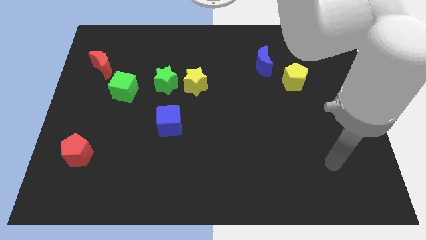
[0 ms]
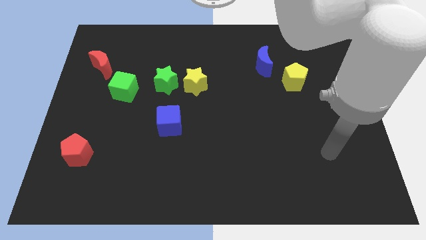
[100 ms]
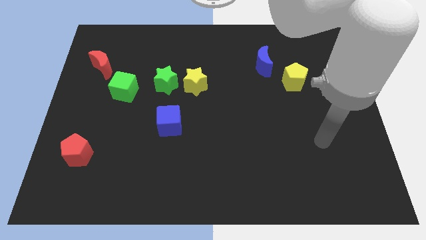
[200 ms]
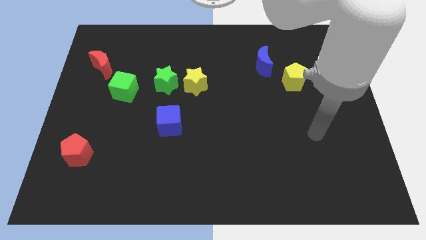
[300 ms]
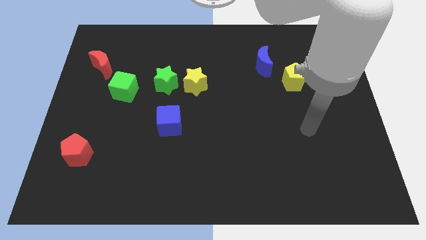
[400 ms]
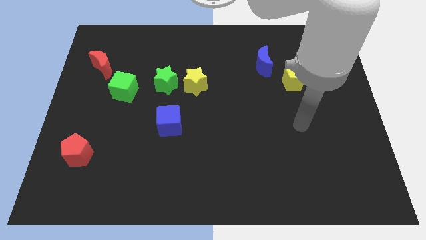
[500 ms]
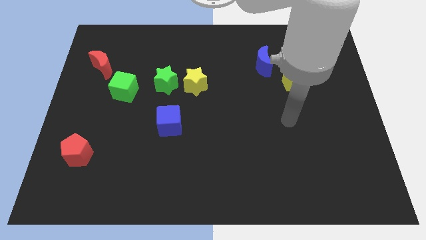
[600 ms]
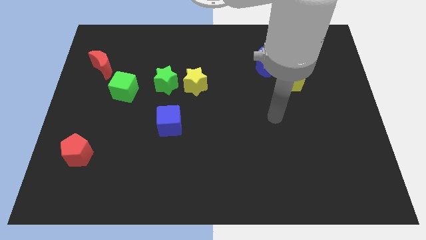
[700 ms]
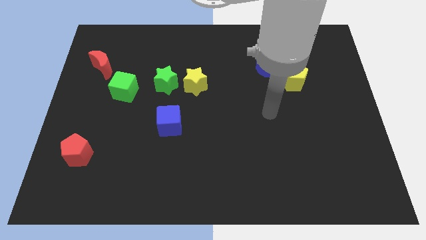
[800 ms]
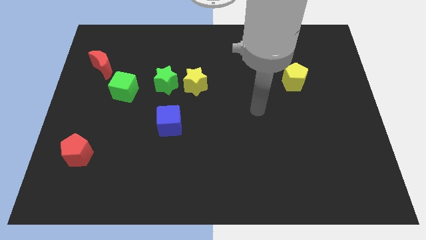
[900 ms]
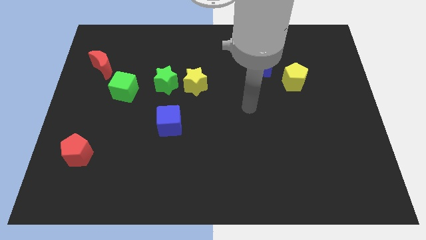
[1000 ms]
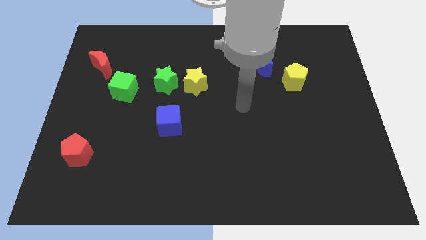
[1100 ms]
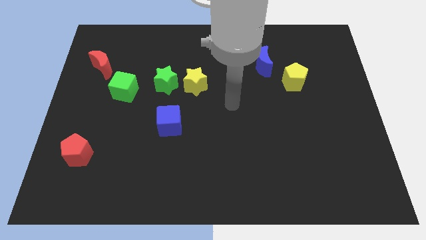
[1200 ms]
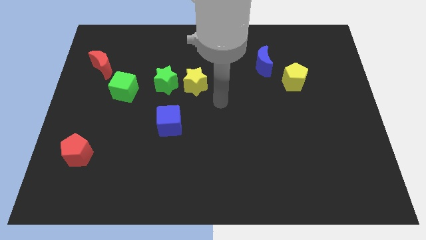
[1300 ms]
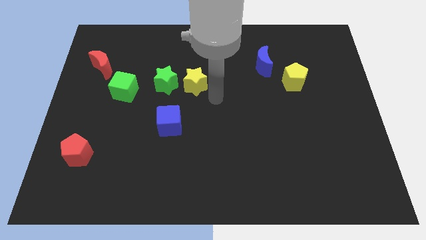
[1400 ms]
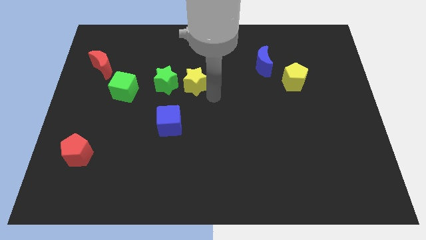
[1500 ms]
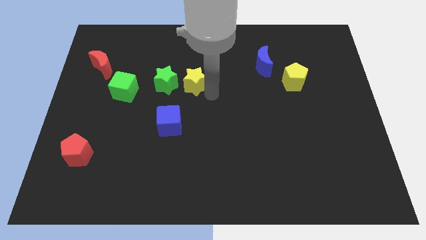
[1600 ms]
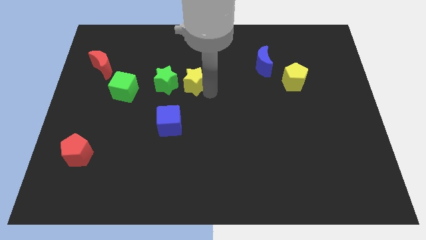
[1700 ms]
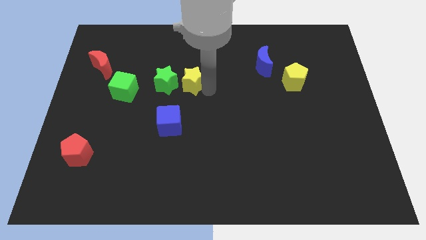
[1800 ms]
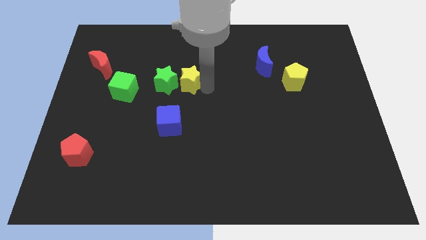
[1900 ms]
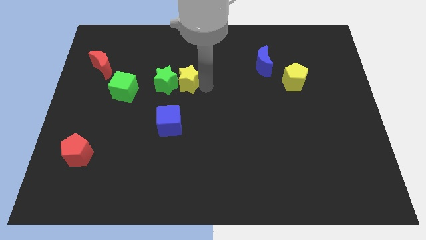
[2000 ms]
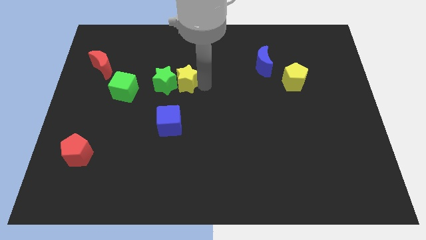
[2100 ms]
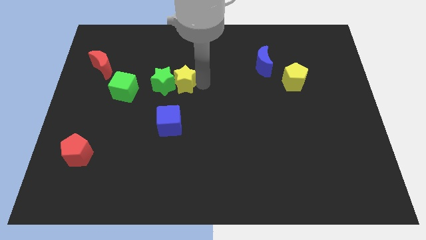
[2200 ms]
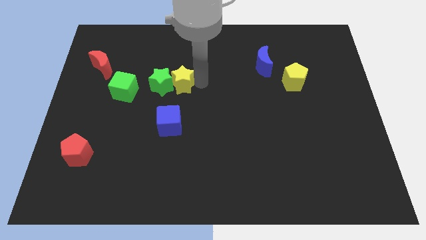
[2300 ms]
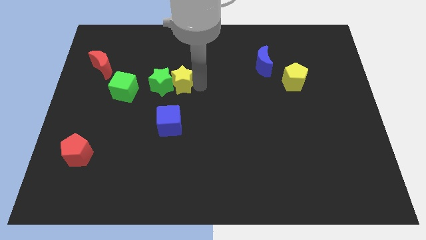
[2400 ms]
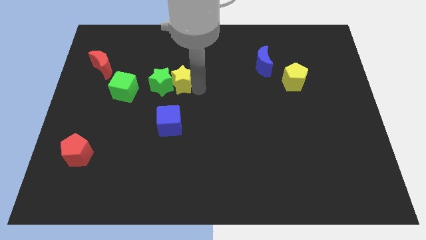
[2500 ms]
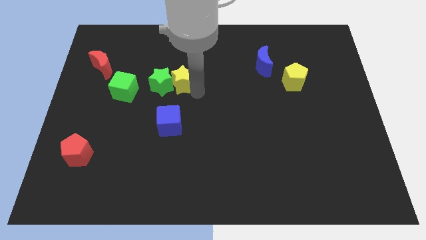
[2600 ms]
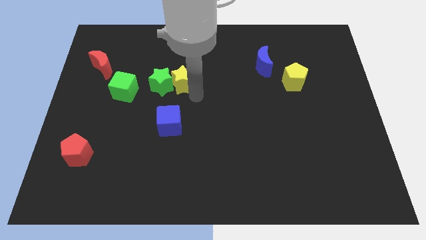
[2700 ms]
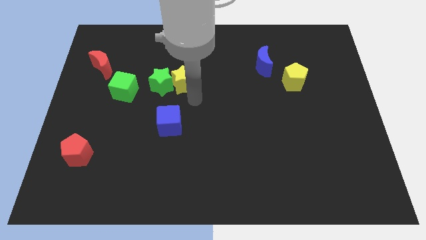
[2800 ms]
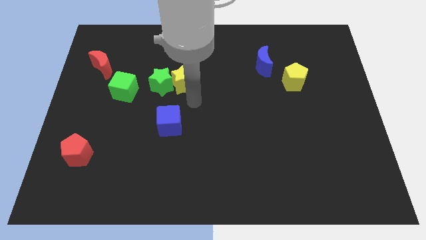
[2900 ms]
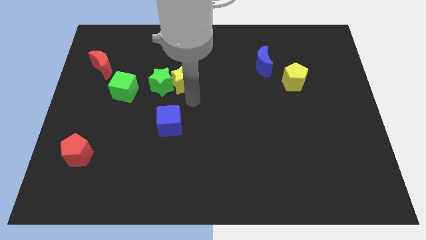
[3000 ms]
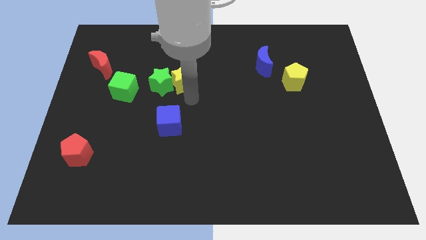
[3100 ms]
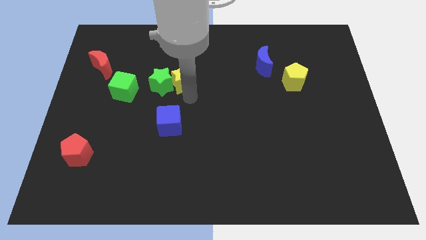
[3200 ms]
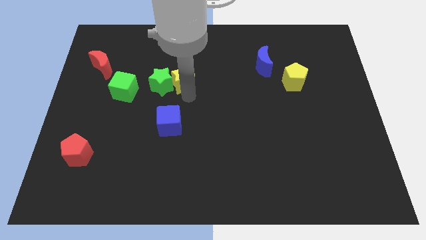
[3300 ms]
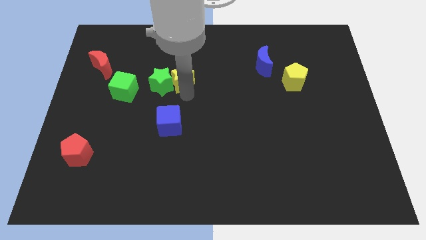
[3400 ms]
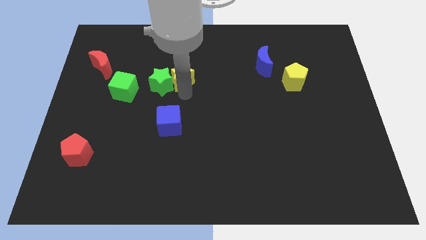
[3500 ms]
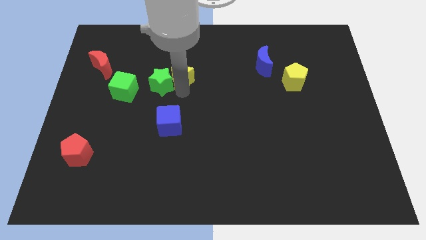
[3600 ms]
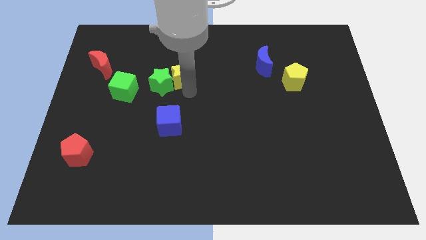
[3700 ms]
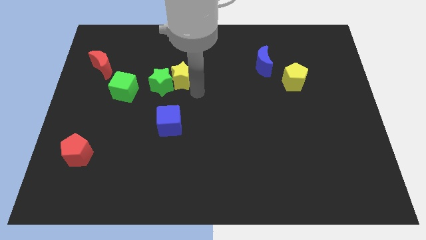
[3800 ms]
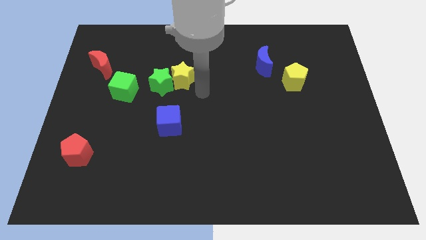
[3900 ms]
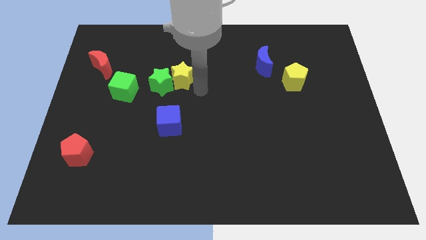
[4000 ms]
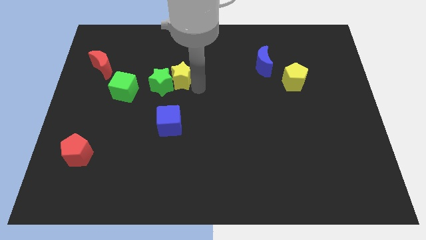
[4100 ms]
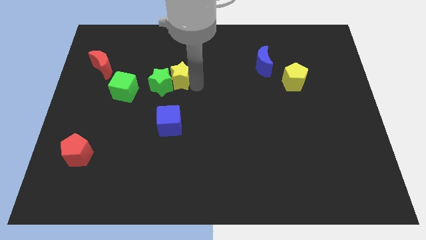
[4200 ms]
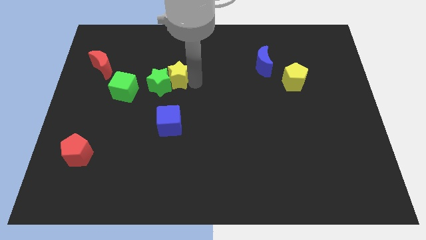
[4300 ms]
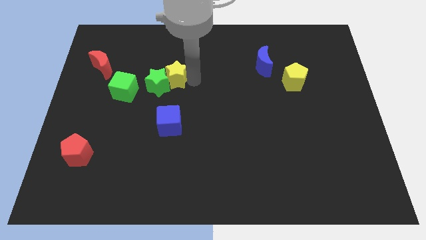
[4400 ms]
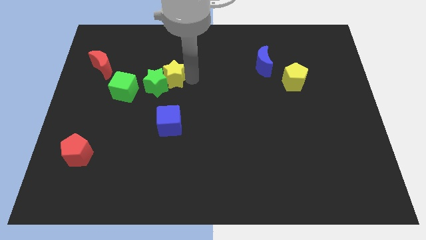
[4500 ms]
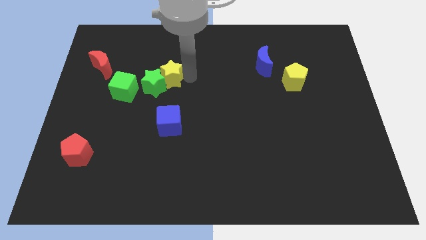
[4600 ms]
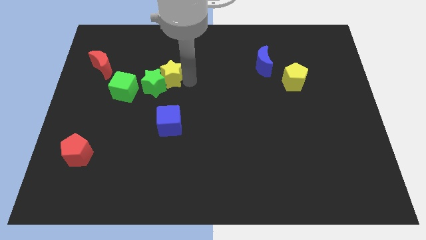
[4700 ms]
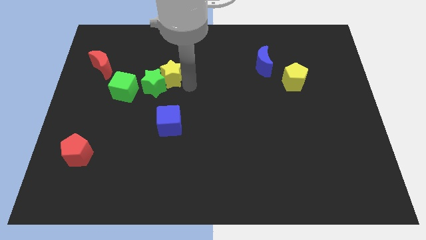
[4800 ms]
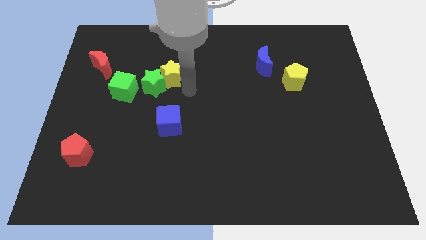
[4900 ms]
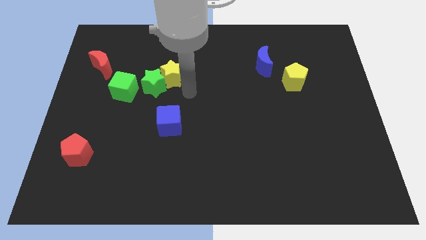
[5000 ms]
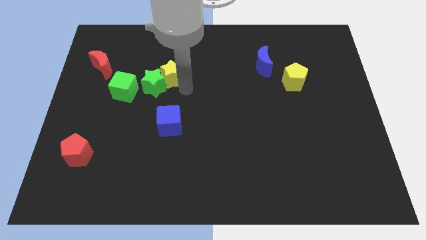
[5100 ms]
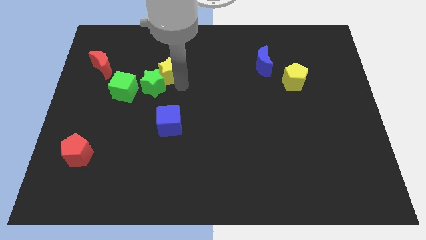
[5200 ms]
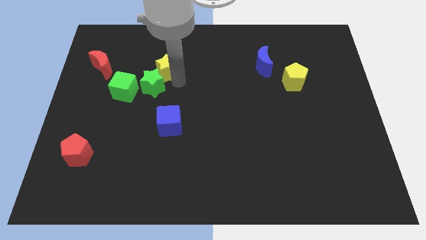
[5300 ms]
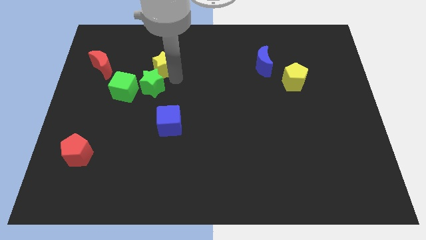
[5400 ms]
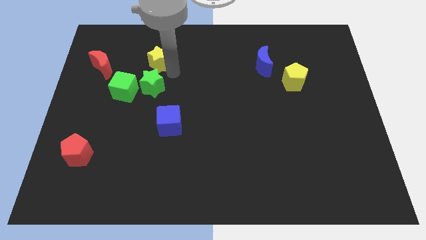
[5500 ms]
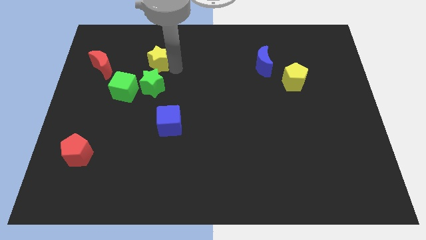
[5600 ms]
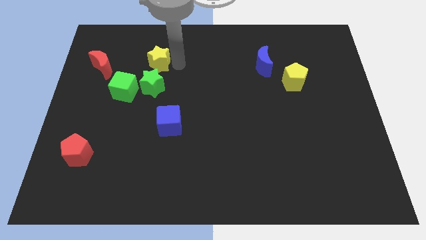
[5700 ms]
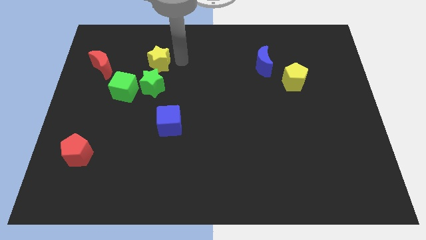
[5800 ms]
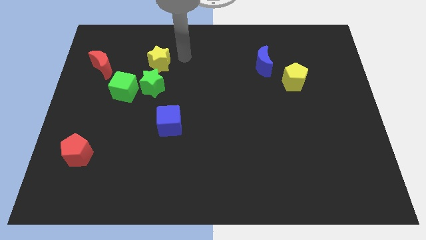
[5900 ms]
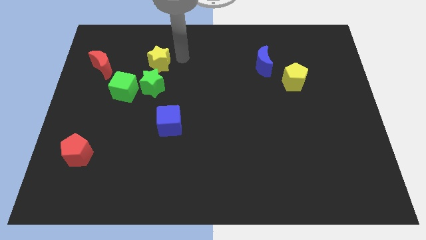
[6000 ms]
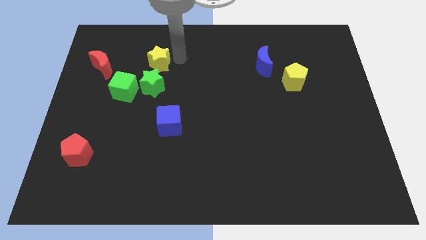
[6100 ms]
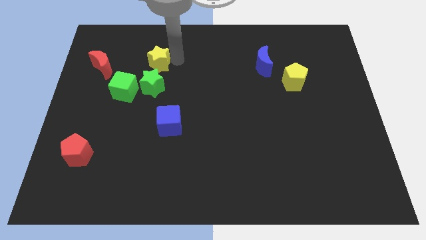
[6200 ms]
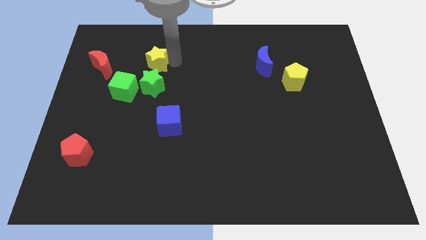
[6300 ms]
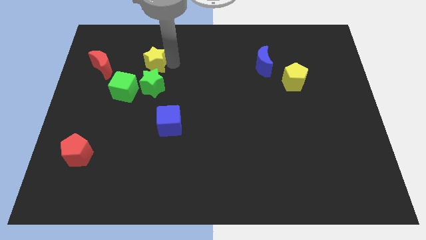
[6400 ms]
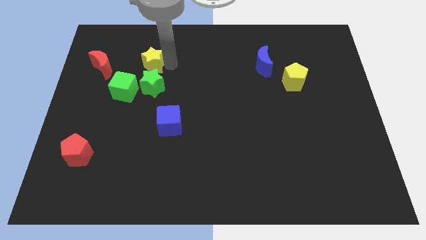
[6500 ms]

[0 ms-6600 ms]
slide the yellow star to the top left side of the green star
